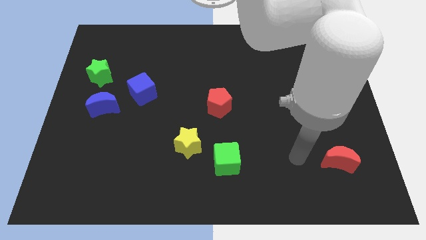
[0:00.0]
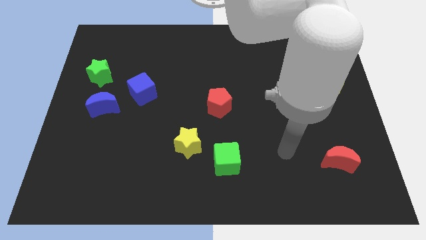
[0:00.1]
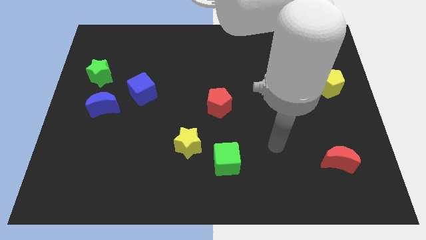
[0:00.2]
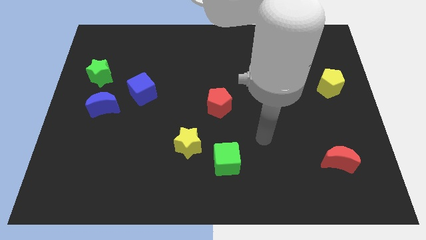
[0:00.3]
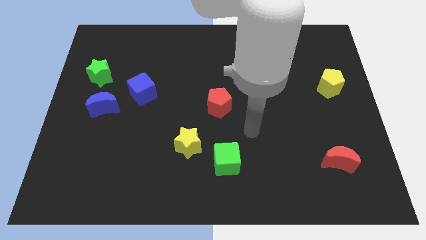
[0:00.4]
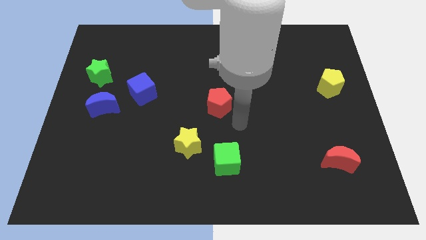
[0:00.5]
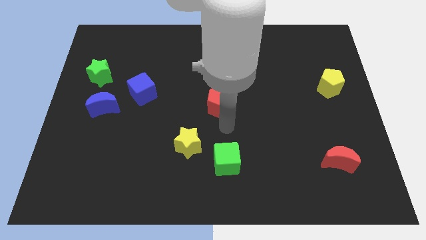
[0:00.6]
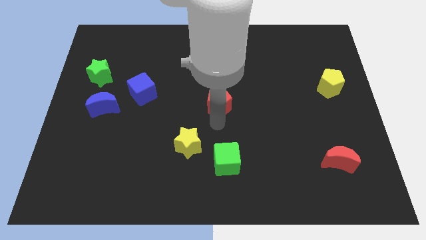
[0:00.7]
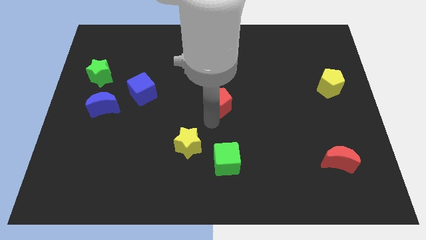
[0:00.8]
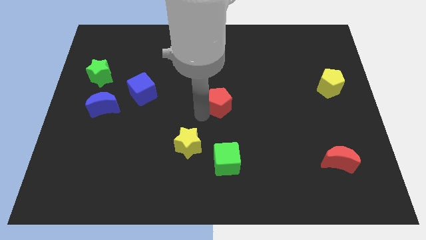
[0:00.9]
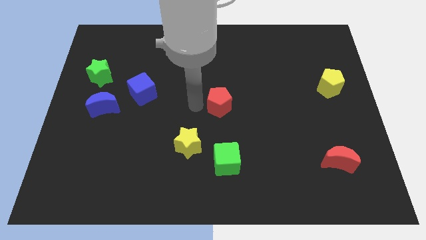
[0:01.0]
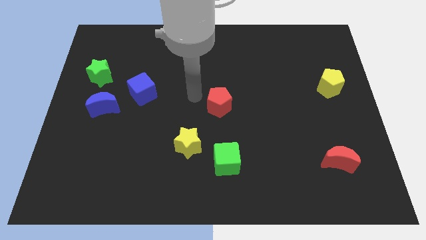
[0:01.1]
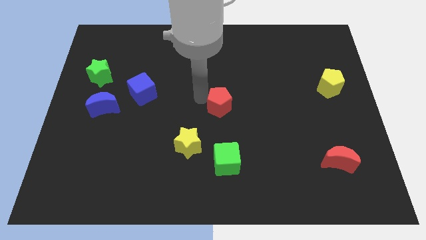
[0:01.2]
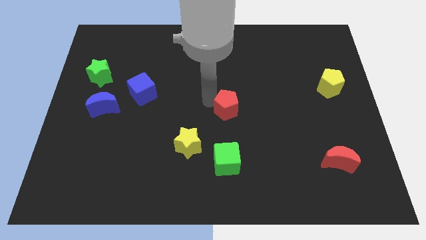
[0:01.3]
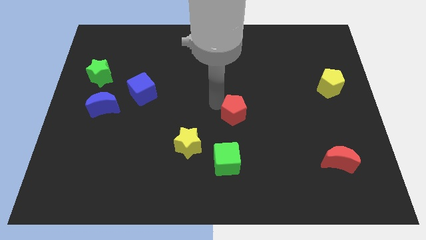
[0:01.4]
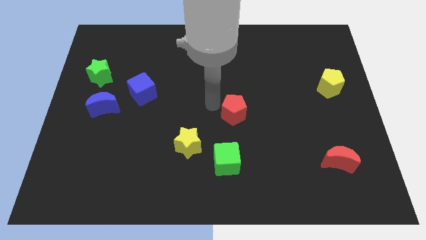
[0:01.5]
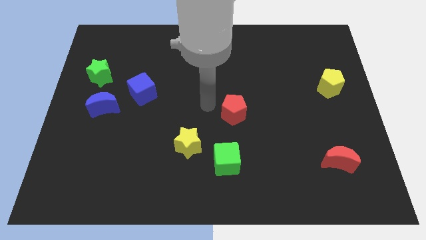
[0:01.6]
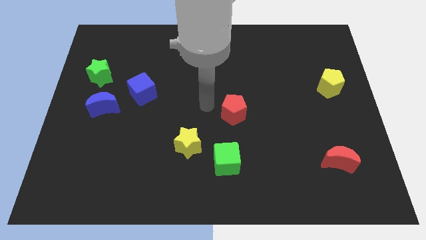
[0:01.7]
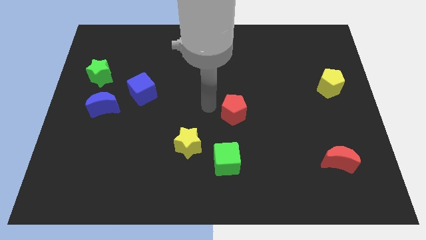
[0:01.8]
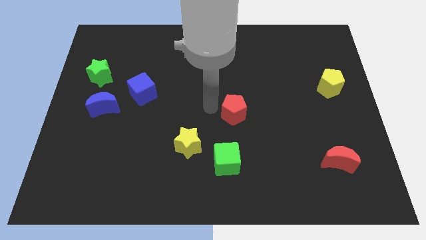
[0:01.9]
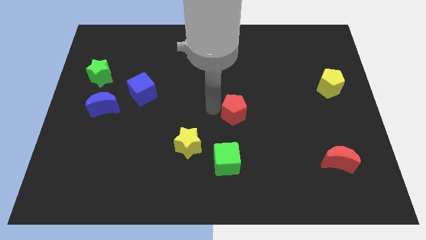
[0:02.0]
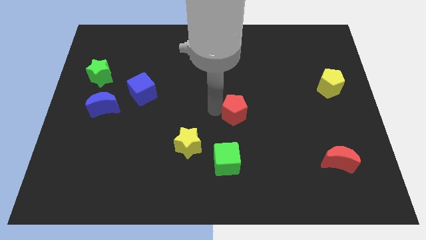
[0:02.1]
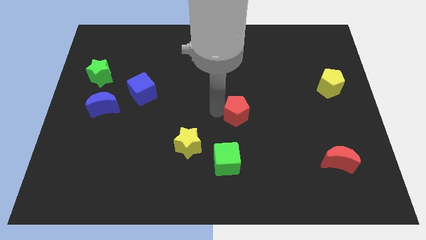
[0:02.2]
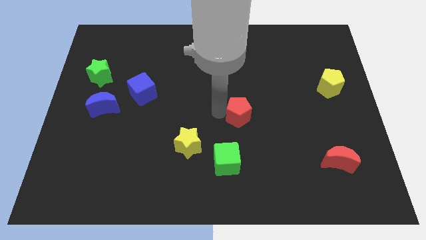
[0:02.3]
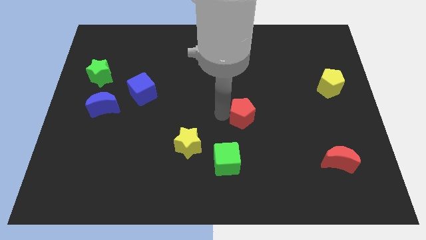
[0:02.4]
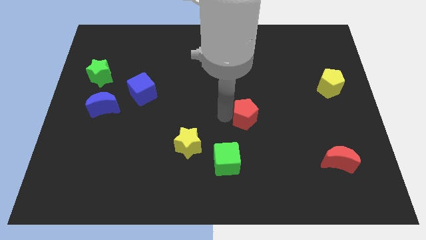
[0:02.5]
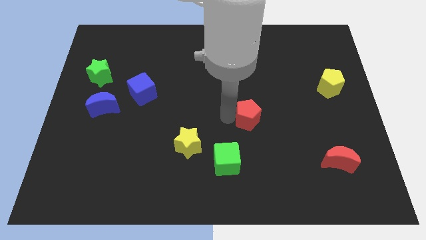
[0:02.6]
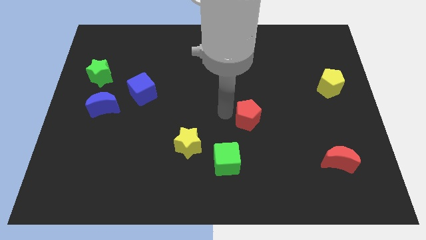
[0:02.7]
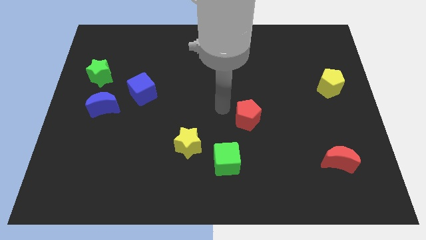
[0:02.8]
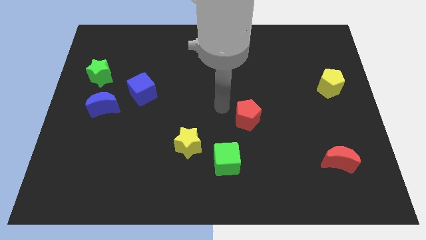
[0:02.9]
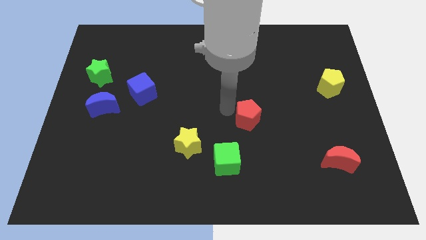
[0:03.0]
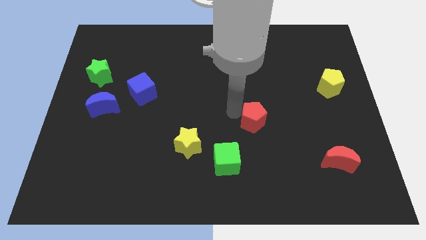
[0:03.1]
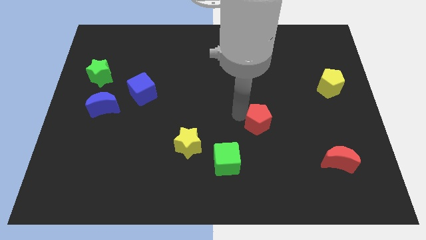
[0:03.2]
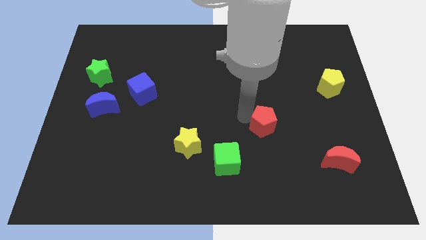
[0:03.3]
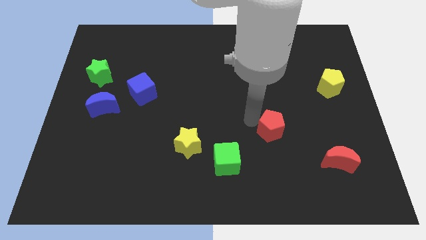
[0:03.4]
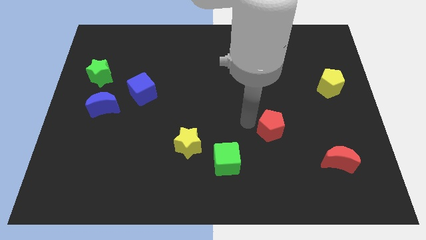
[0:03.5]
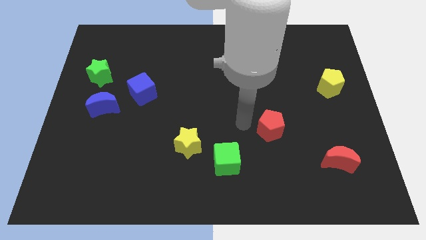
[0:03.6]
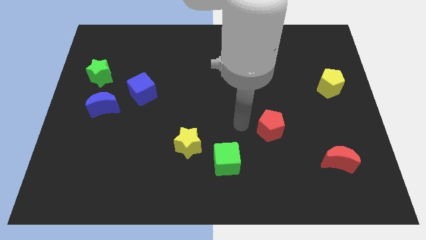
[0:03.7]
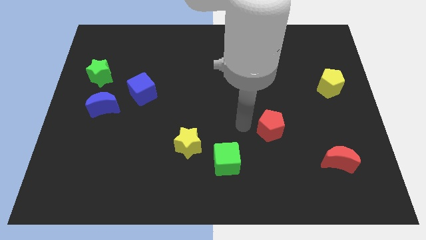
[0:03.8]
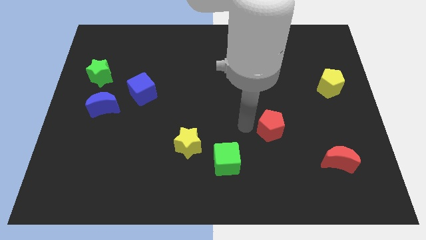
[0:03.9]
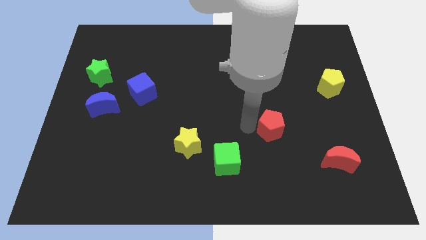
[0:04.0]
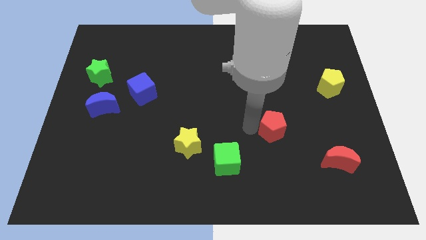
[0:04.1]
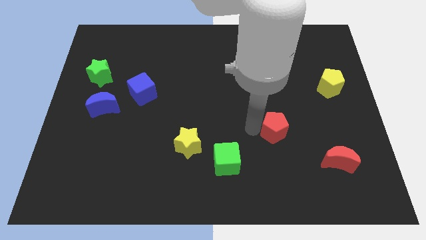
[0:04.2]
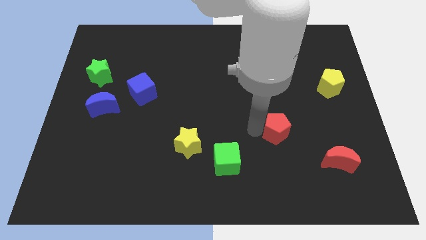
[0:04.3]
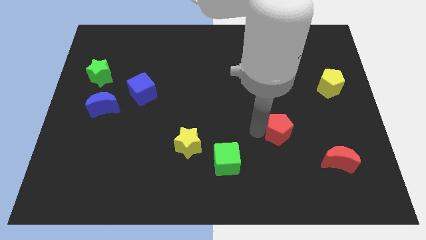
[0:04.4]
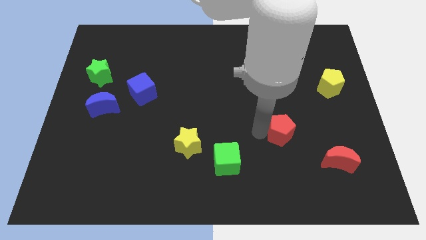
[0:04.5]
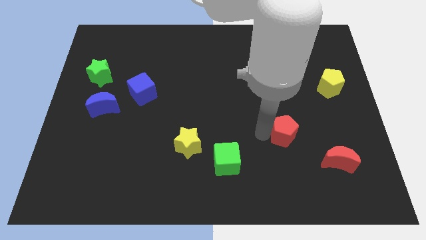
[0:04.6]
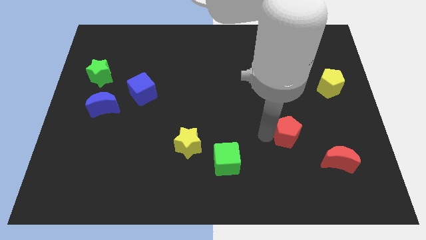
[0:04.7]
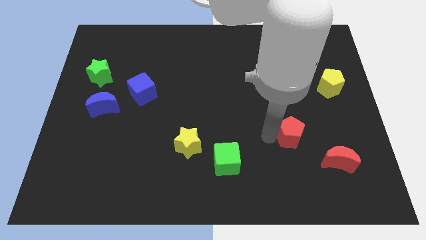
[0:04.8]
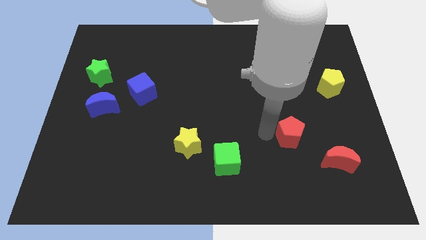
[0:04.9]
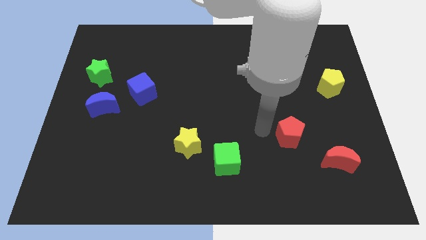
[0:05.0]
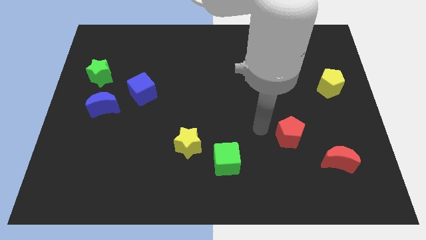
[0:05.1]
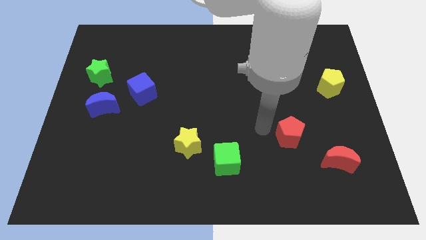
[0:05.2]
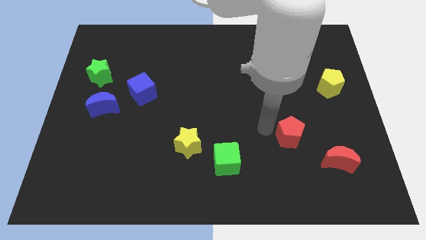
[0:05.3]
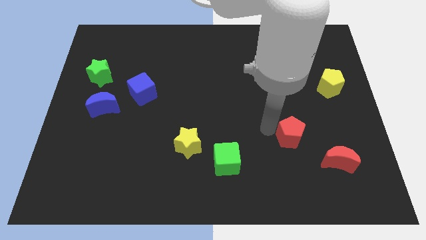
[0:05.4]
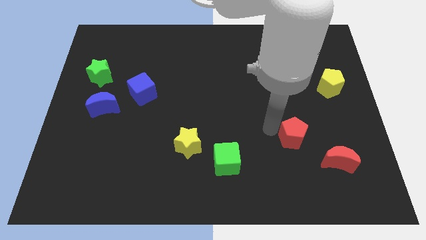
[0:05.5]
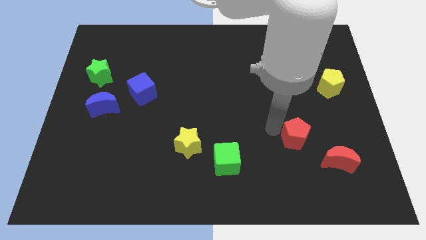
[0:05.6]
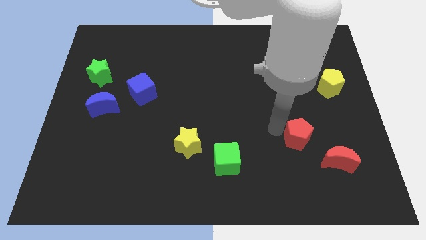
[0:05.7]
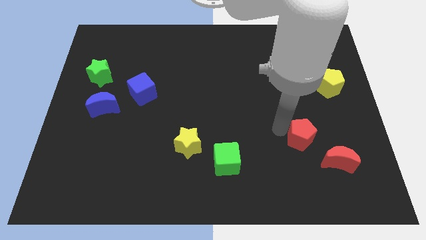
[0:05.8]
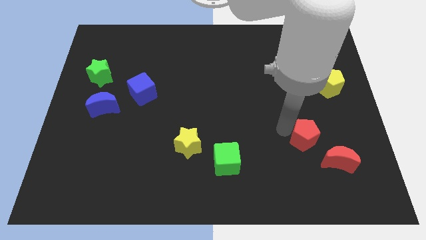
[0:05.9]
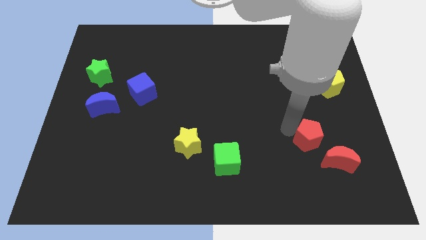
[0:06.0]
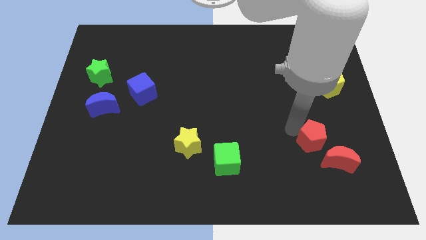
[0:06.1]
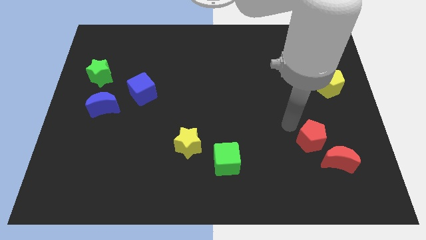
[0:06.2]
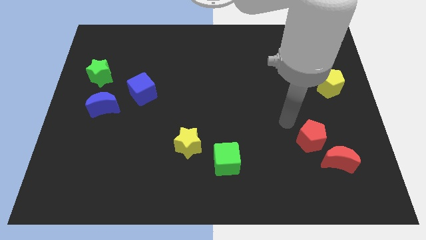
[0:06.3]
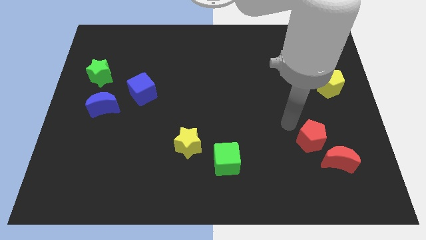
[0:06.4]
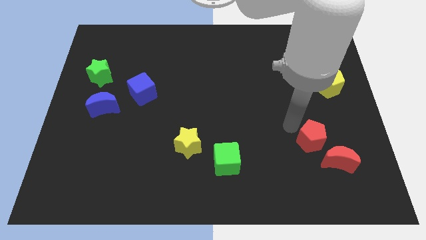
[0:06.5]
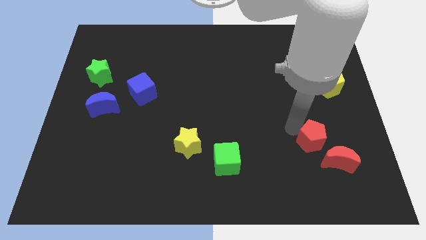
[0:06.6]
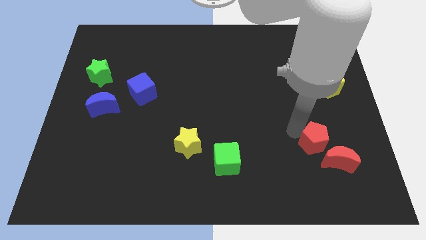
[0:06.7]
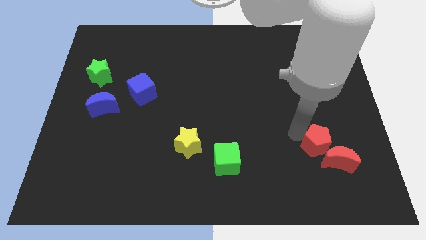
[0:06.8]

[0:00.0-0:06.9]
slide the red pentagon towards the red moon
